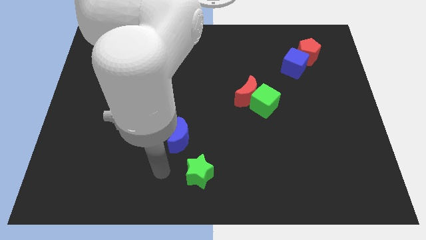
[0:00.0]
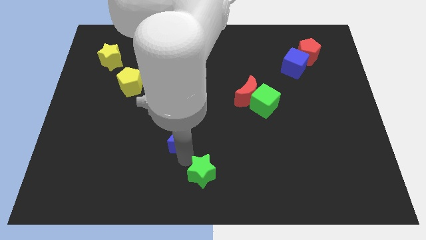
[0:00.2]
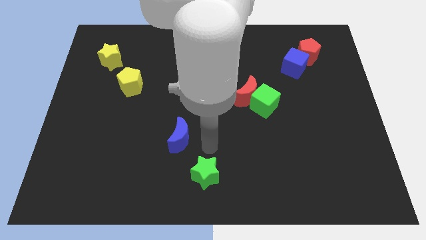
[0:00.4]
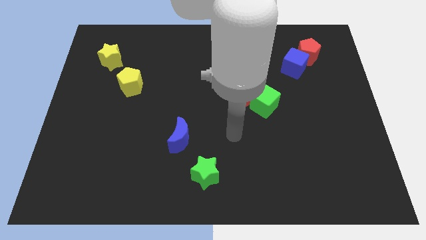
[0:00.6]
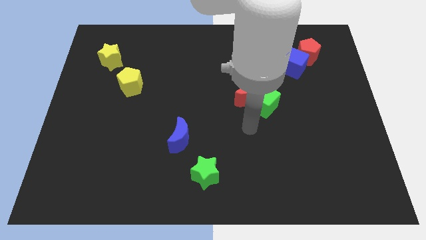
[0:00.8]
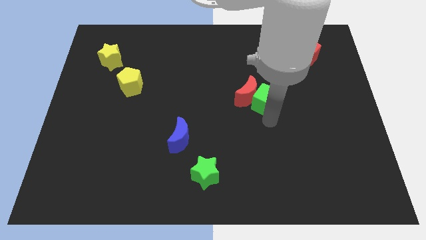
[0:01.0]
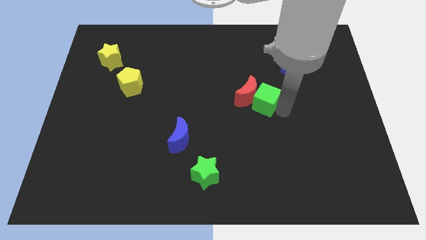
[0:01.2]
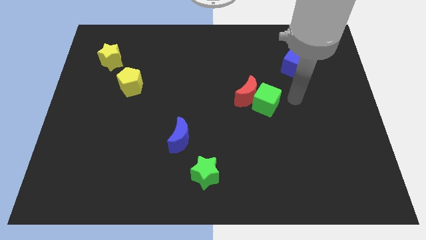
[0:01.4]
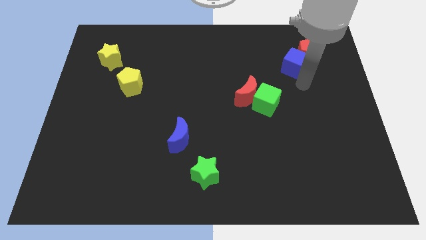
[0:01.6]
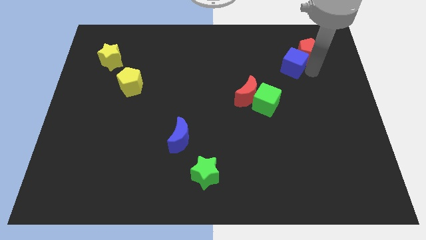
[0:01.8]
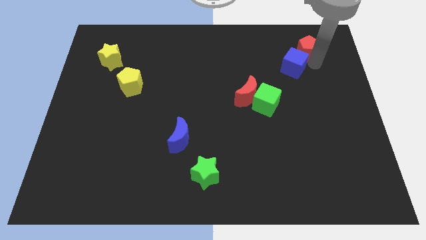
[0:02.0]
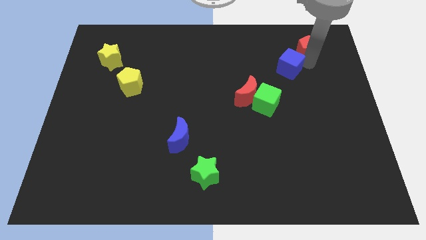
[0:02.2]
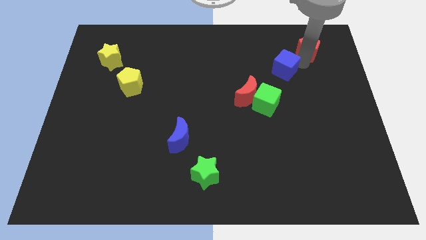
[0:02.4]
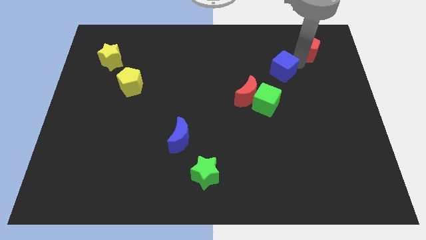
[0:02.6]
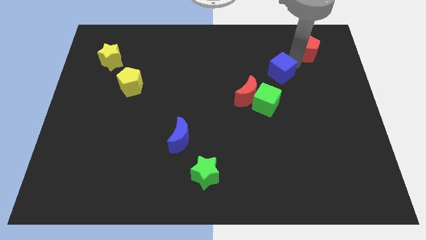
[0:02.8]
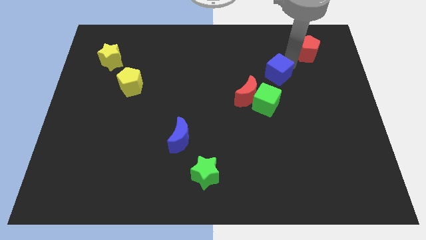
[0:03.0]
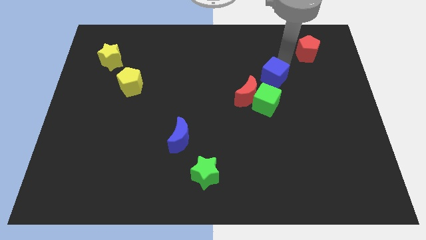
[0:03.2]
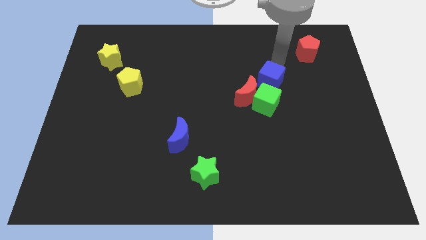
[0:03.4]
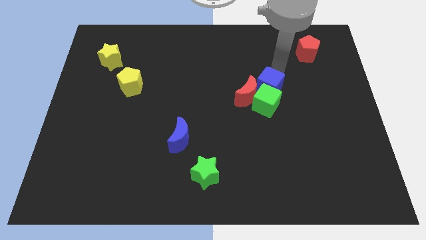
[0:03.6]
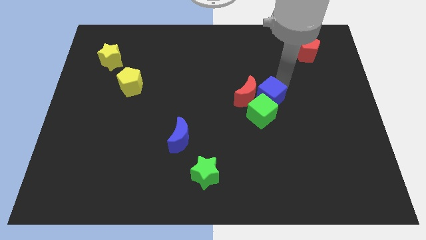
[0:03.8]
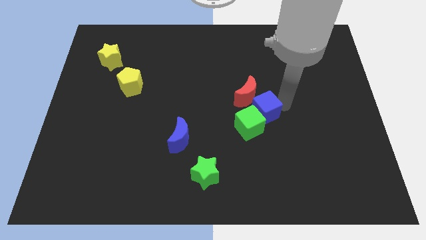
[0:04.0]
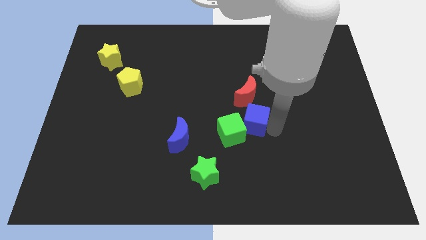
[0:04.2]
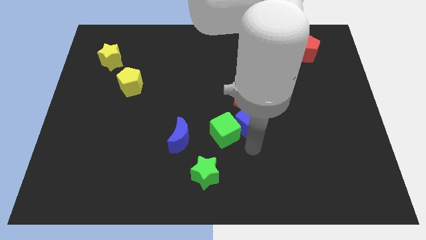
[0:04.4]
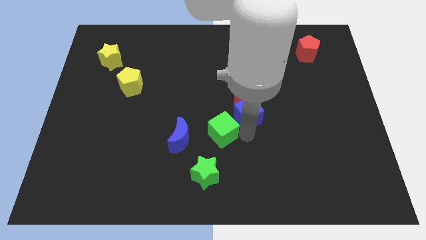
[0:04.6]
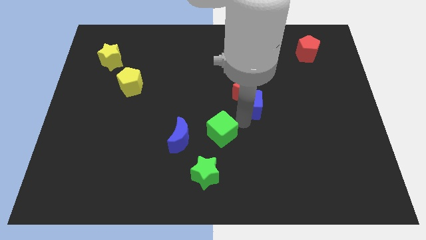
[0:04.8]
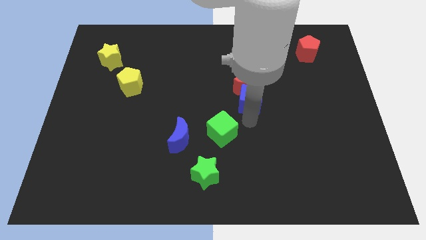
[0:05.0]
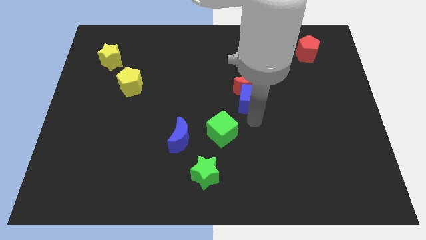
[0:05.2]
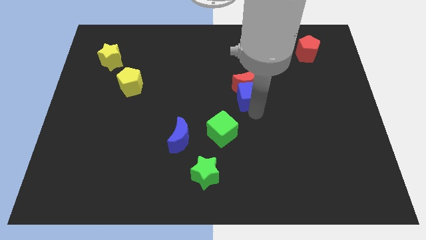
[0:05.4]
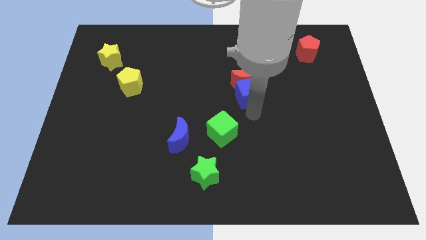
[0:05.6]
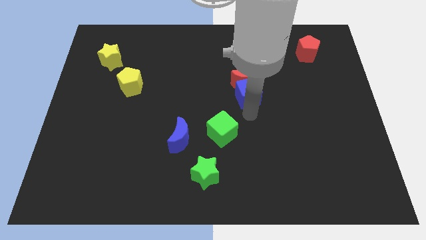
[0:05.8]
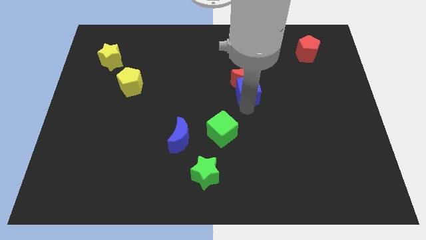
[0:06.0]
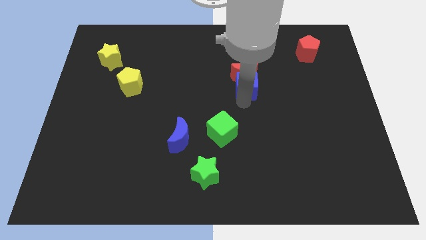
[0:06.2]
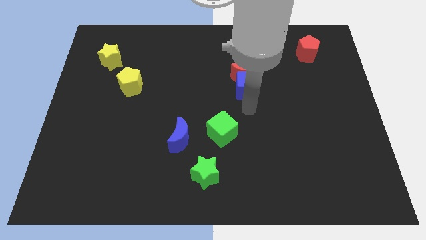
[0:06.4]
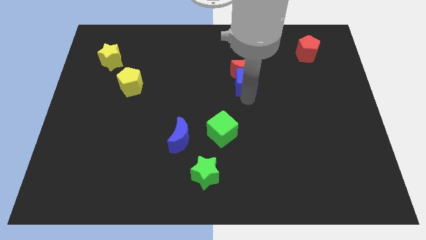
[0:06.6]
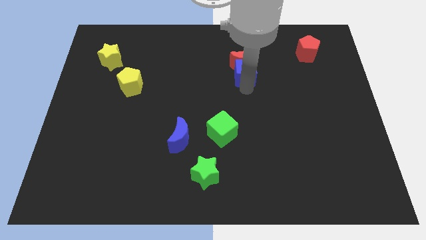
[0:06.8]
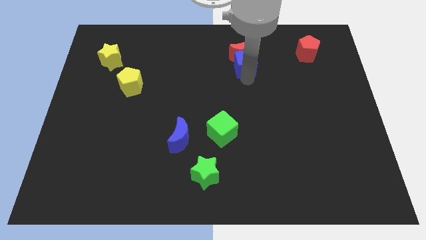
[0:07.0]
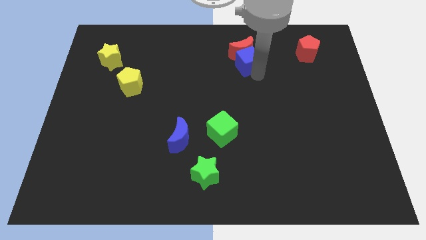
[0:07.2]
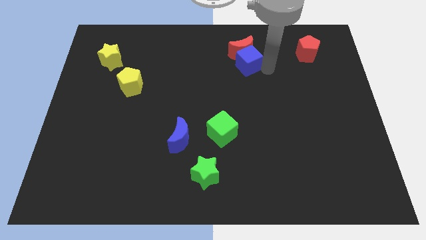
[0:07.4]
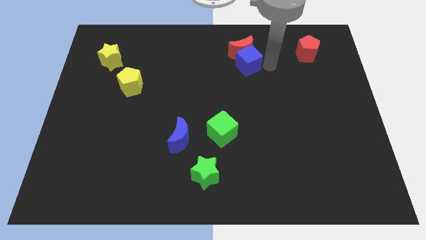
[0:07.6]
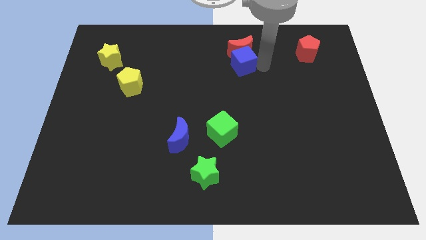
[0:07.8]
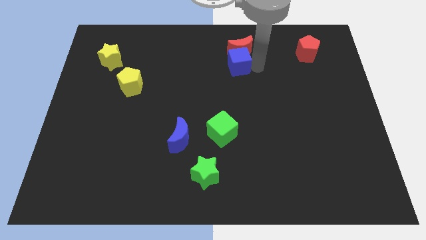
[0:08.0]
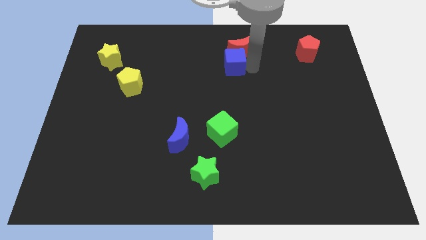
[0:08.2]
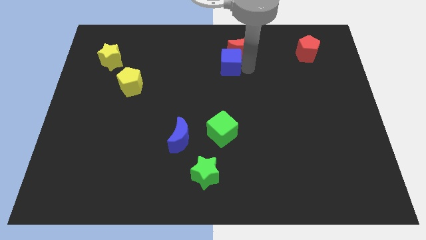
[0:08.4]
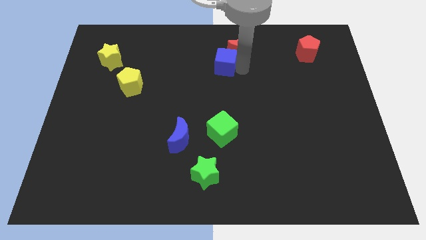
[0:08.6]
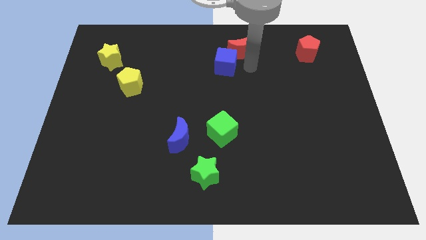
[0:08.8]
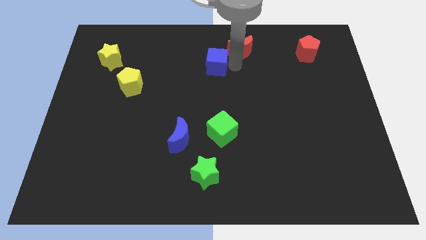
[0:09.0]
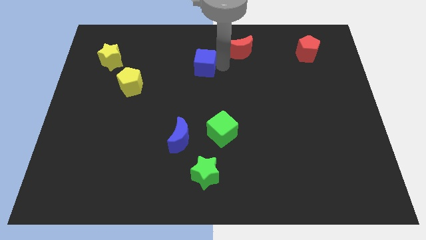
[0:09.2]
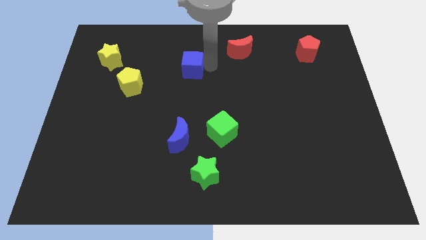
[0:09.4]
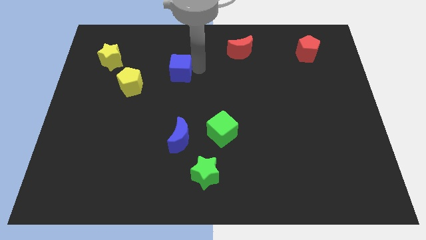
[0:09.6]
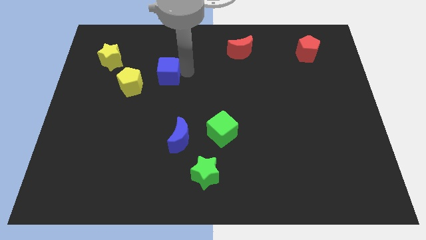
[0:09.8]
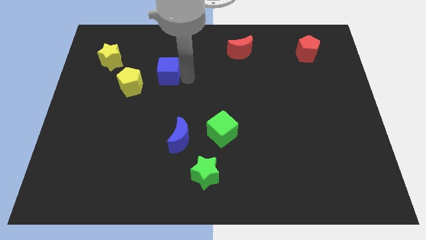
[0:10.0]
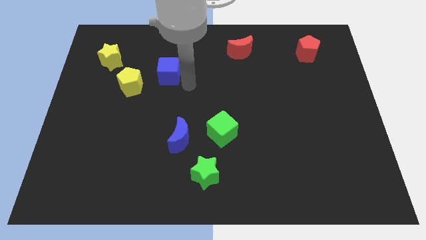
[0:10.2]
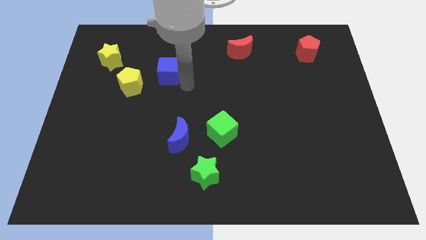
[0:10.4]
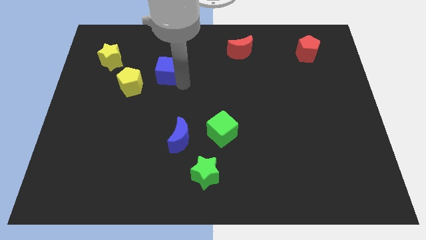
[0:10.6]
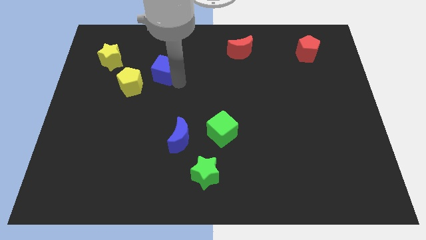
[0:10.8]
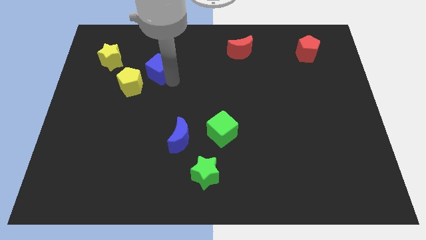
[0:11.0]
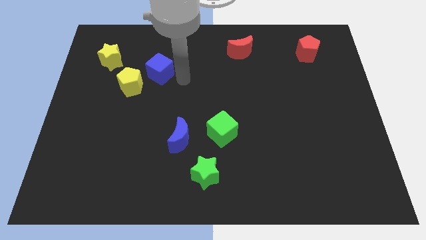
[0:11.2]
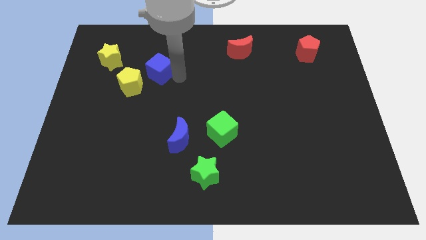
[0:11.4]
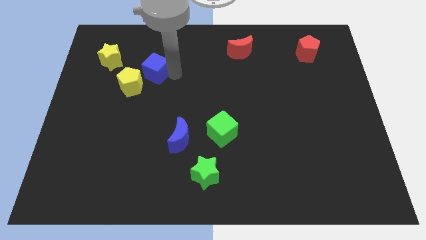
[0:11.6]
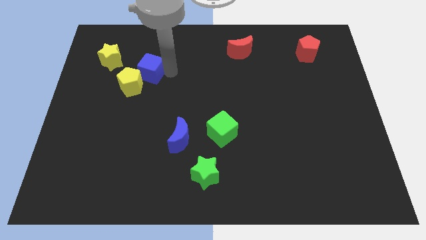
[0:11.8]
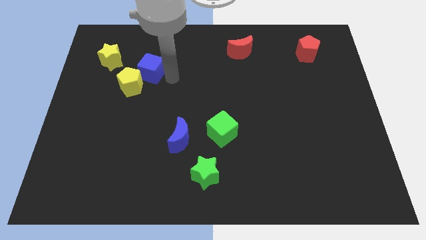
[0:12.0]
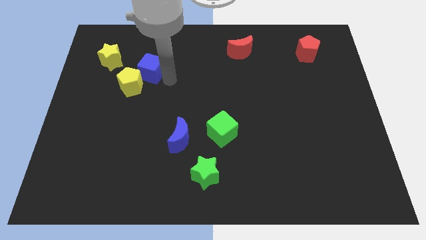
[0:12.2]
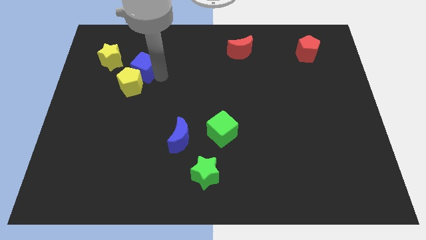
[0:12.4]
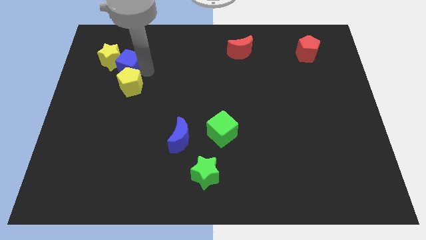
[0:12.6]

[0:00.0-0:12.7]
push the blue cube towards the yellow star
